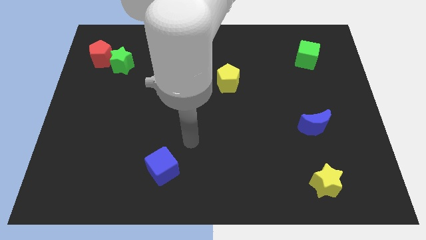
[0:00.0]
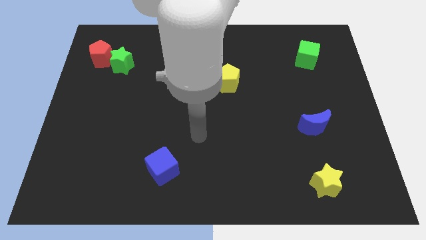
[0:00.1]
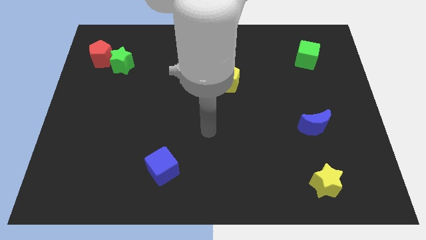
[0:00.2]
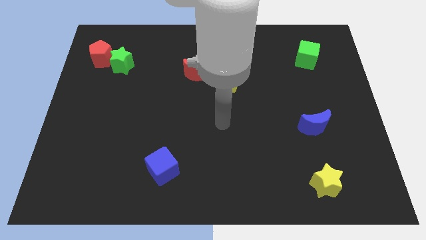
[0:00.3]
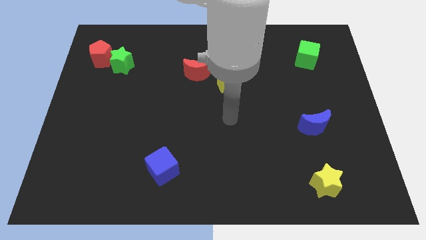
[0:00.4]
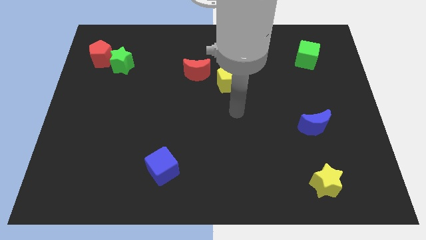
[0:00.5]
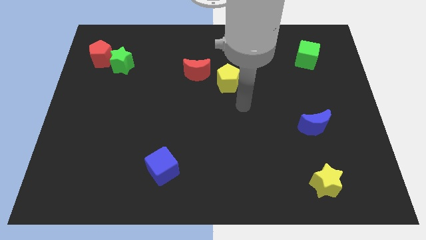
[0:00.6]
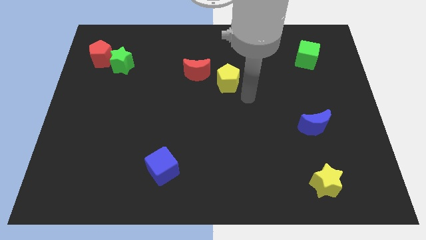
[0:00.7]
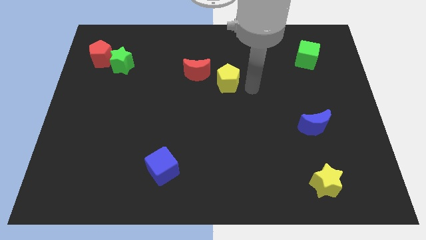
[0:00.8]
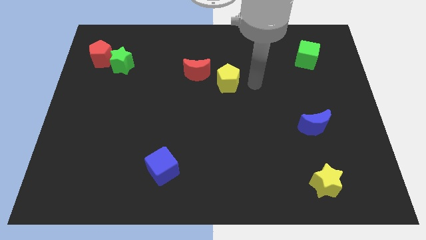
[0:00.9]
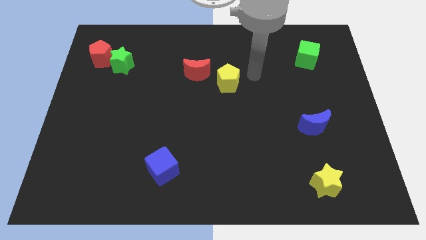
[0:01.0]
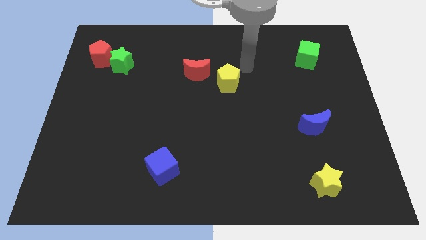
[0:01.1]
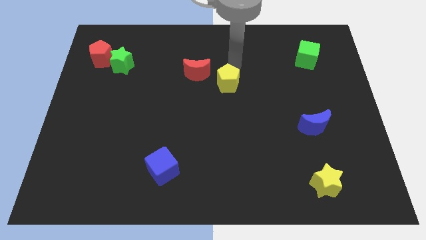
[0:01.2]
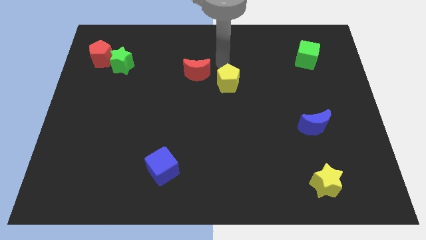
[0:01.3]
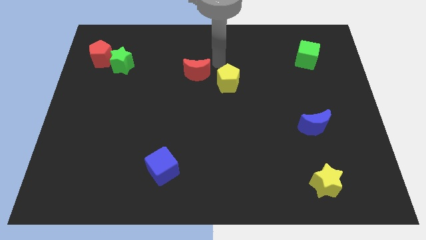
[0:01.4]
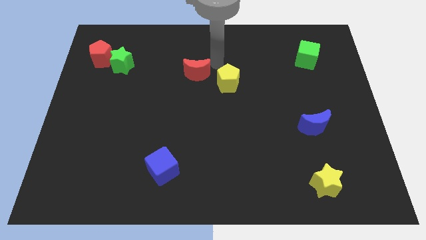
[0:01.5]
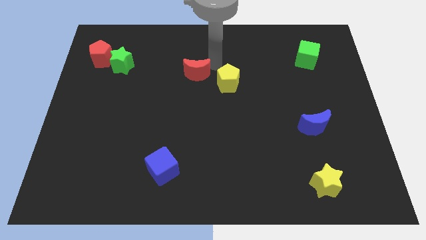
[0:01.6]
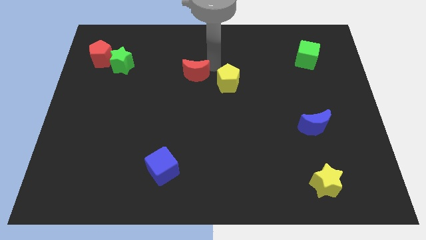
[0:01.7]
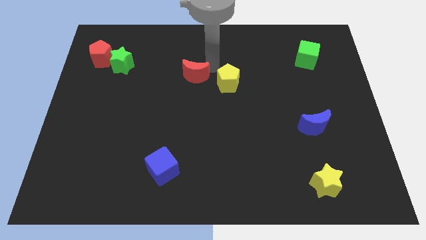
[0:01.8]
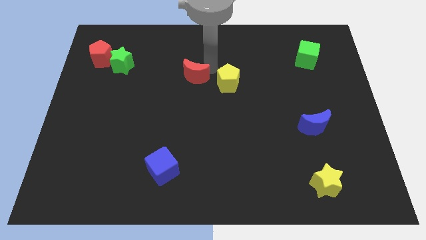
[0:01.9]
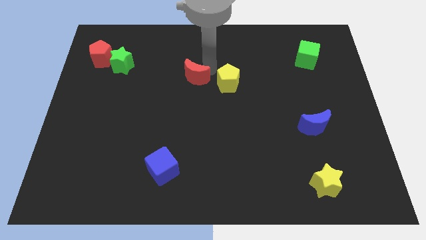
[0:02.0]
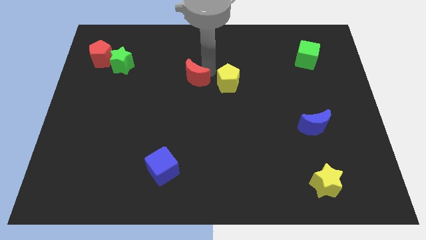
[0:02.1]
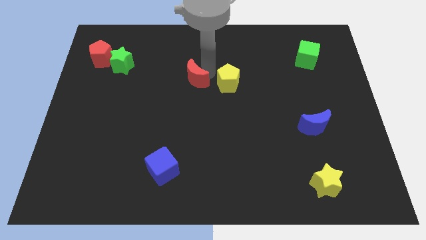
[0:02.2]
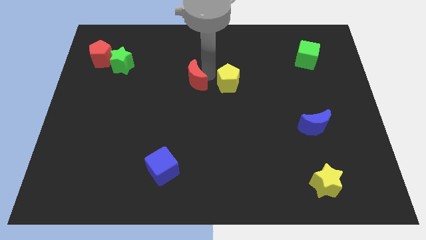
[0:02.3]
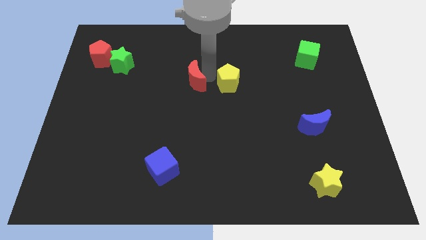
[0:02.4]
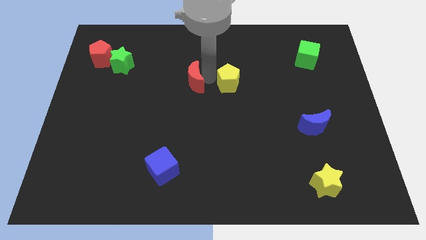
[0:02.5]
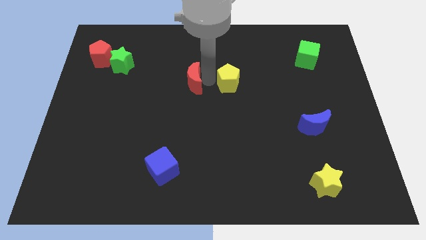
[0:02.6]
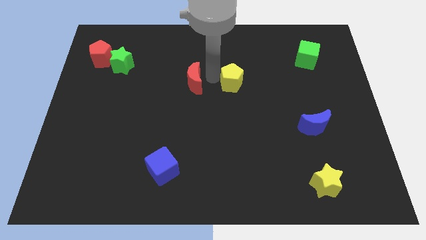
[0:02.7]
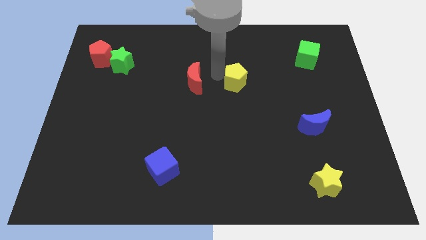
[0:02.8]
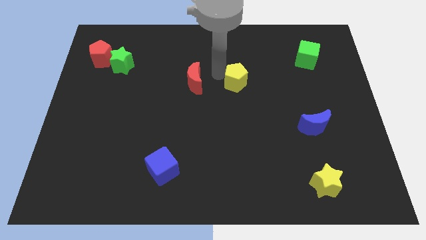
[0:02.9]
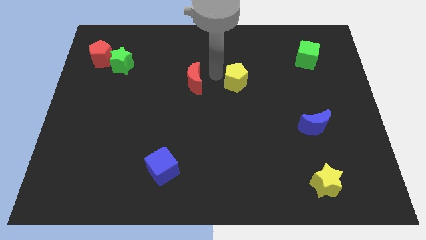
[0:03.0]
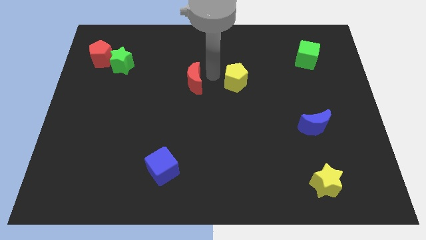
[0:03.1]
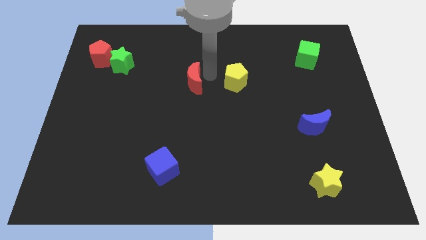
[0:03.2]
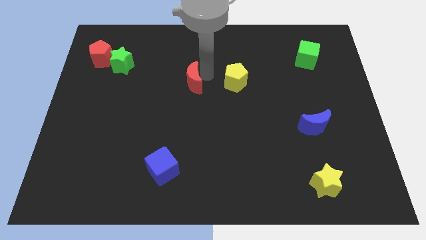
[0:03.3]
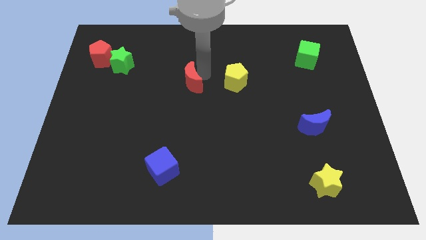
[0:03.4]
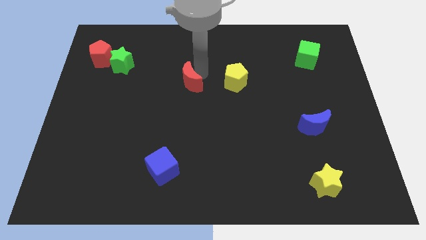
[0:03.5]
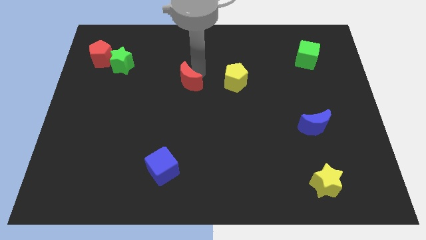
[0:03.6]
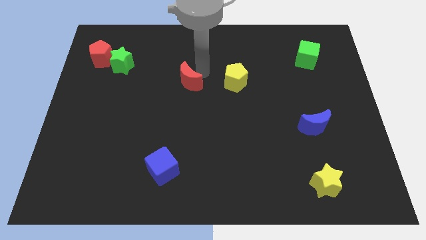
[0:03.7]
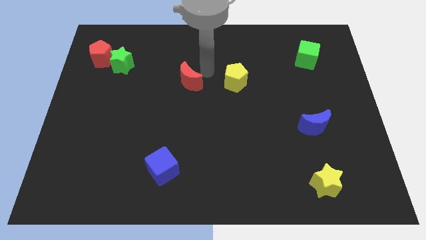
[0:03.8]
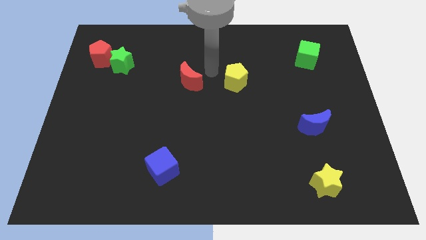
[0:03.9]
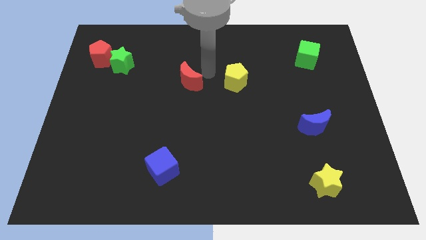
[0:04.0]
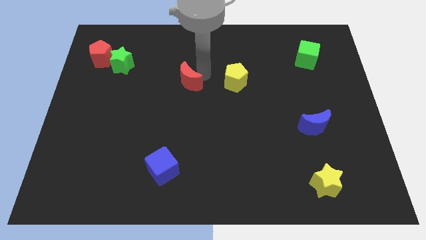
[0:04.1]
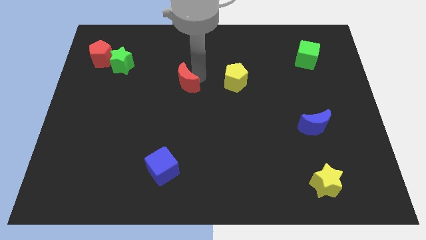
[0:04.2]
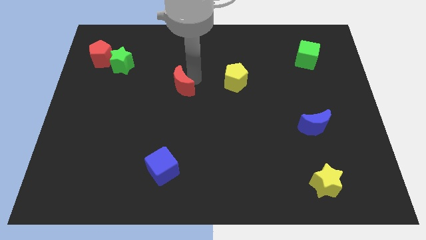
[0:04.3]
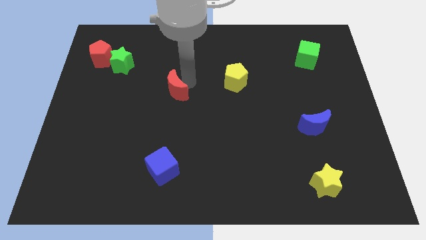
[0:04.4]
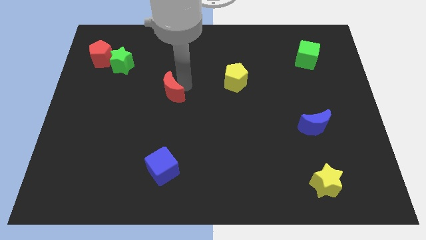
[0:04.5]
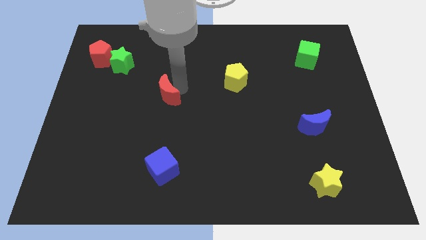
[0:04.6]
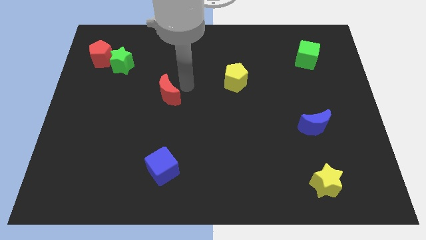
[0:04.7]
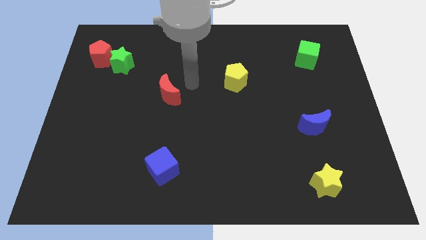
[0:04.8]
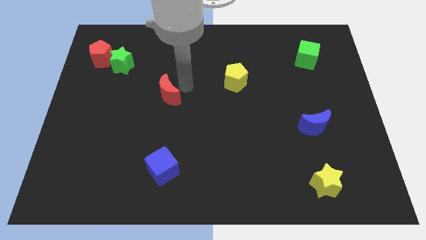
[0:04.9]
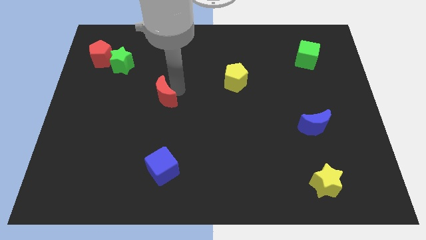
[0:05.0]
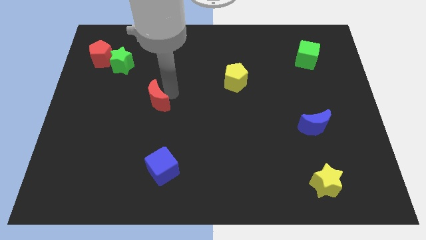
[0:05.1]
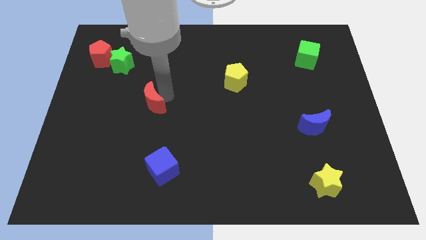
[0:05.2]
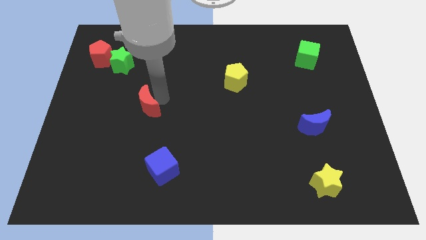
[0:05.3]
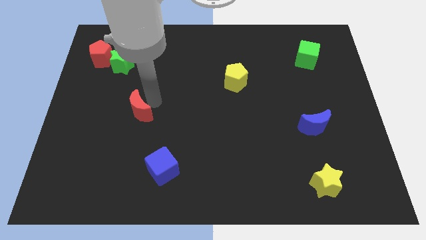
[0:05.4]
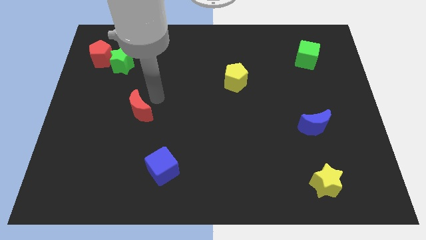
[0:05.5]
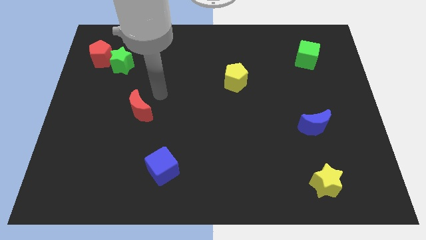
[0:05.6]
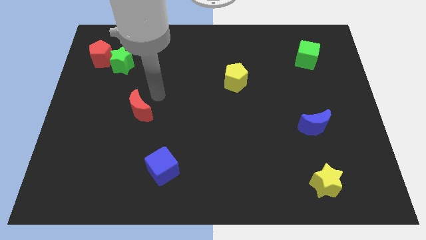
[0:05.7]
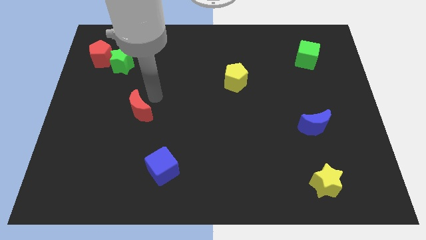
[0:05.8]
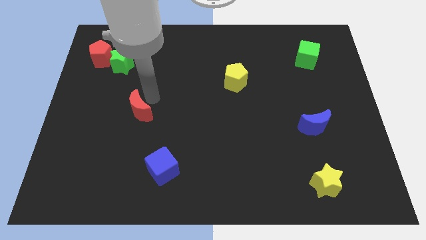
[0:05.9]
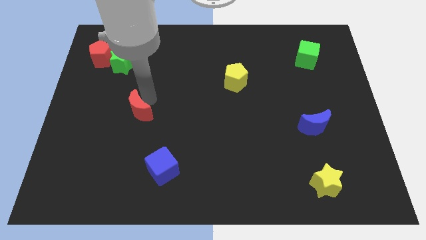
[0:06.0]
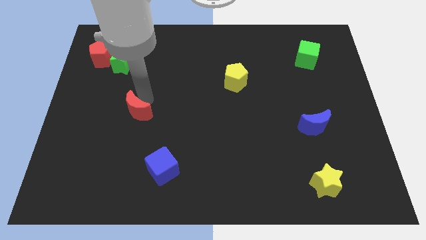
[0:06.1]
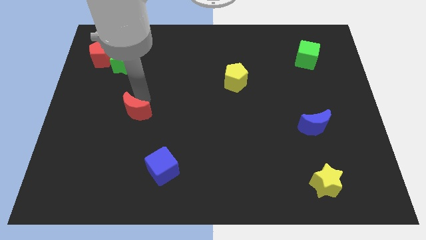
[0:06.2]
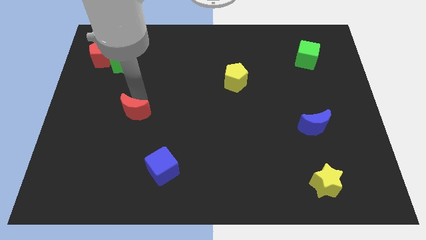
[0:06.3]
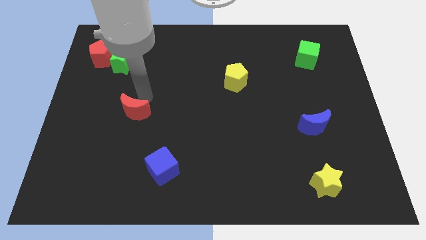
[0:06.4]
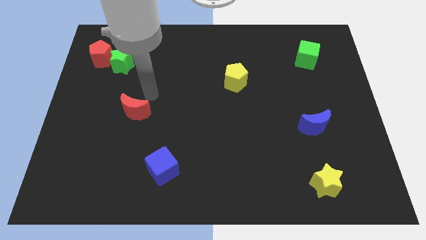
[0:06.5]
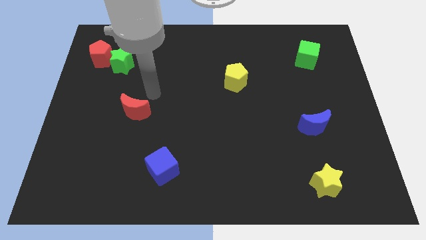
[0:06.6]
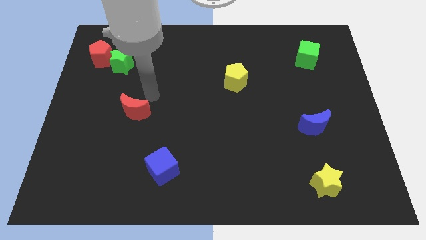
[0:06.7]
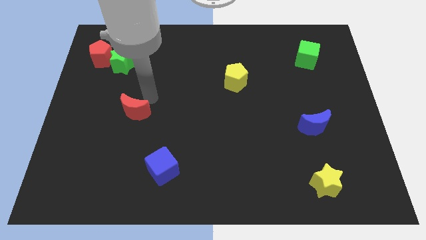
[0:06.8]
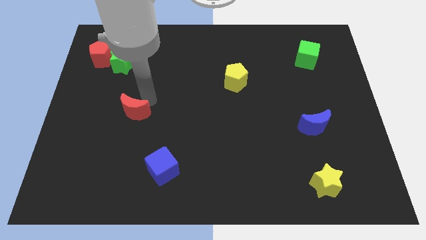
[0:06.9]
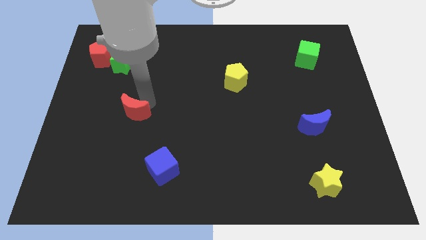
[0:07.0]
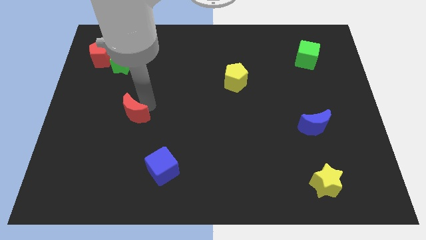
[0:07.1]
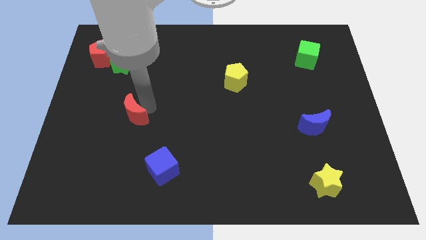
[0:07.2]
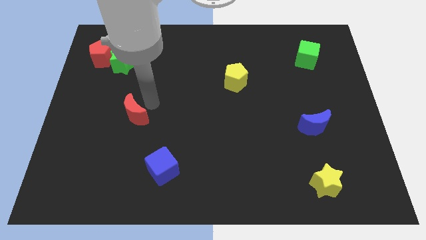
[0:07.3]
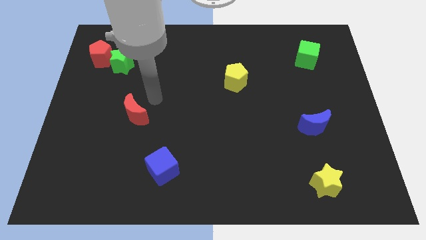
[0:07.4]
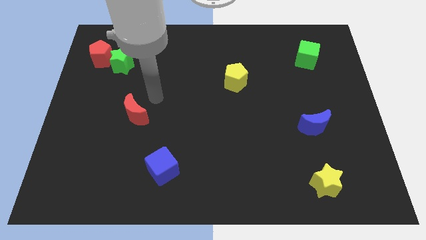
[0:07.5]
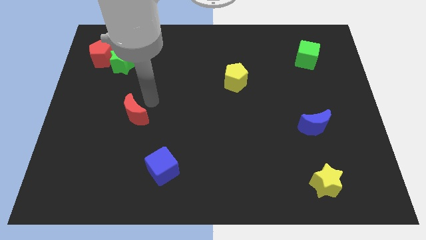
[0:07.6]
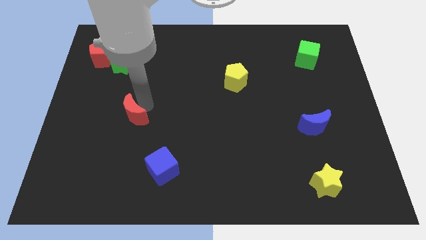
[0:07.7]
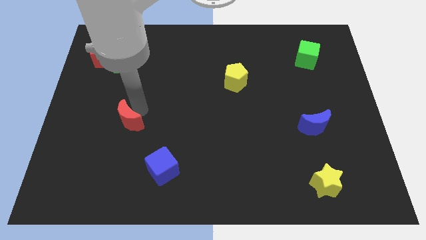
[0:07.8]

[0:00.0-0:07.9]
move the red moon downwards and to the left
